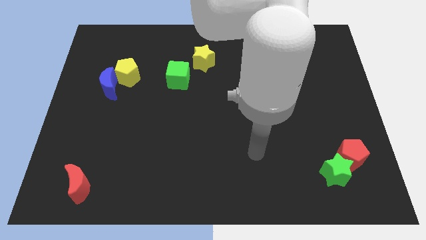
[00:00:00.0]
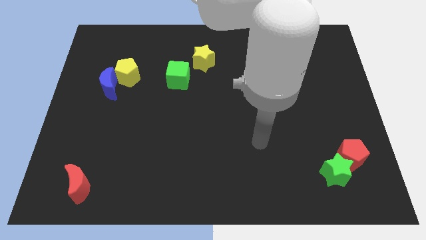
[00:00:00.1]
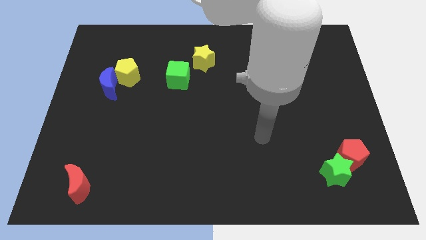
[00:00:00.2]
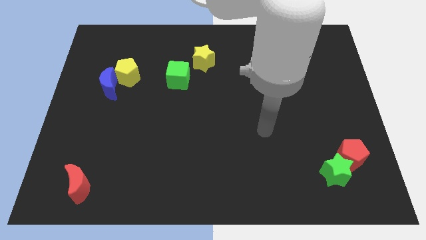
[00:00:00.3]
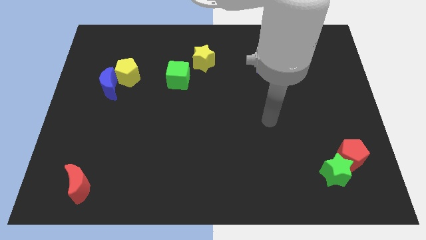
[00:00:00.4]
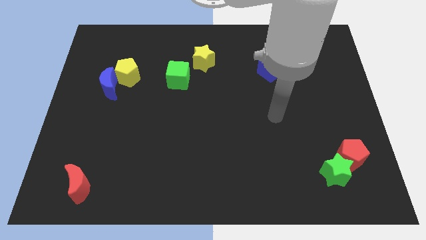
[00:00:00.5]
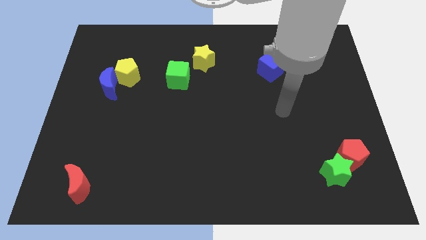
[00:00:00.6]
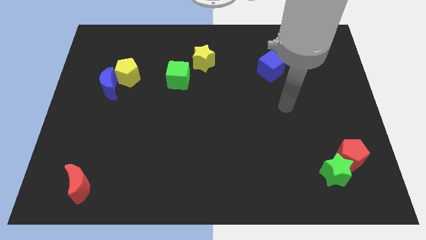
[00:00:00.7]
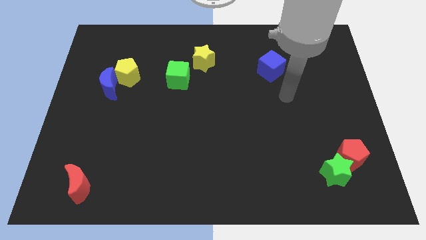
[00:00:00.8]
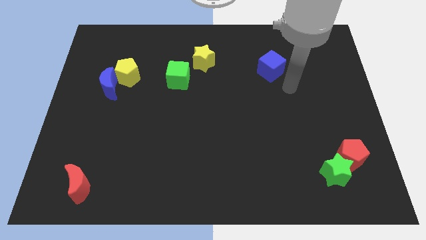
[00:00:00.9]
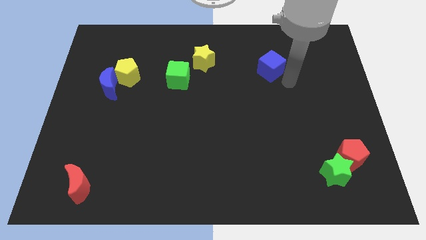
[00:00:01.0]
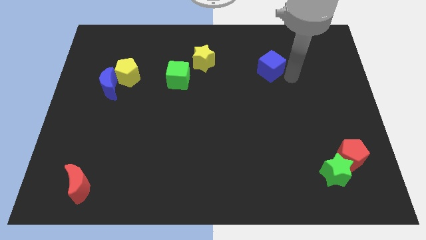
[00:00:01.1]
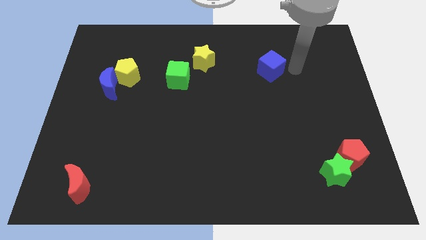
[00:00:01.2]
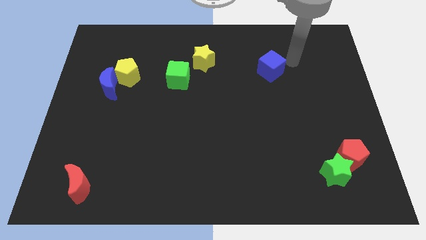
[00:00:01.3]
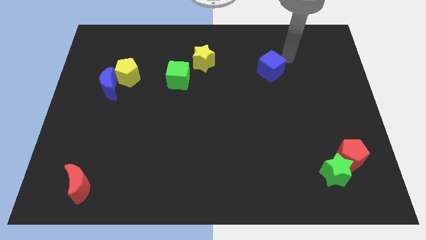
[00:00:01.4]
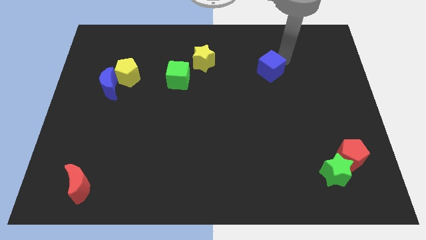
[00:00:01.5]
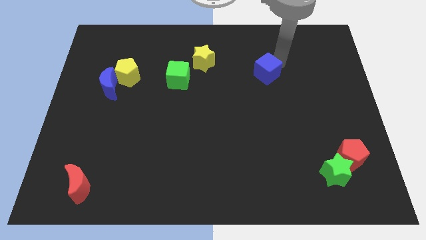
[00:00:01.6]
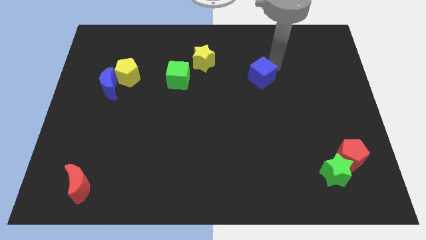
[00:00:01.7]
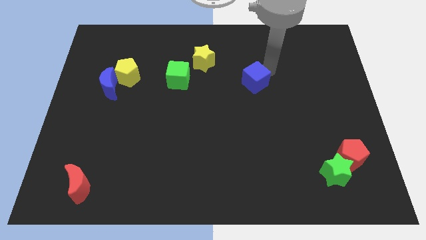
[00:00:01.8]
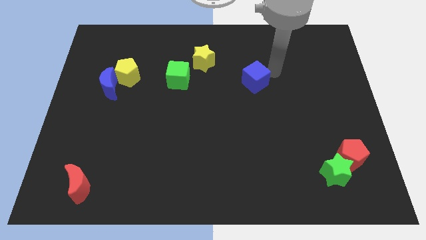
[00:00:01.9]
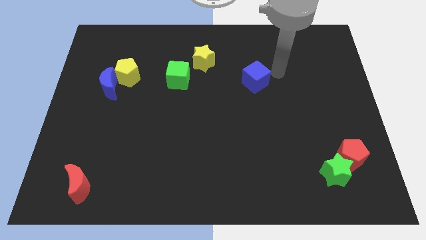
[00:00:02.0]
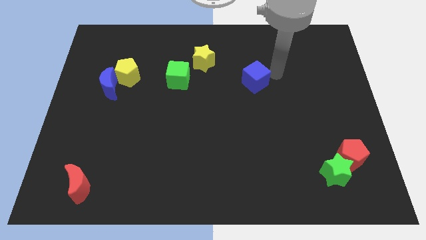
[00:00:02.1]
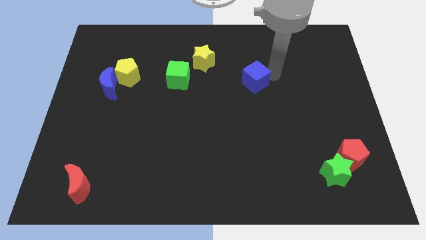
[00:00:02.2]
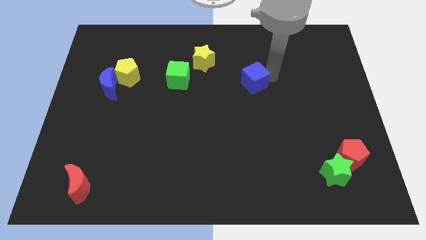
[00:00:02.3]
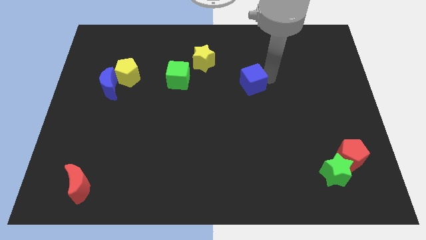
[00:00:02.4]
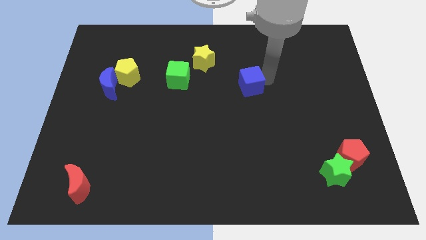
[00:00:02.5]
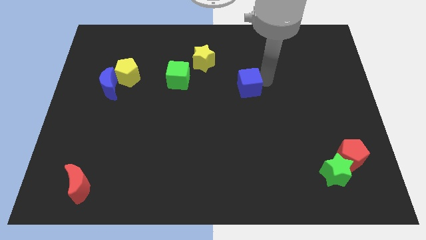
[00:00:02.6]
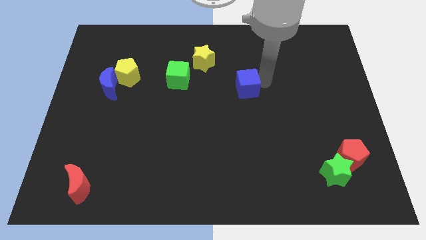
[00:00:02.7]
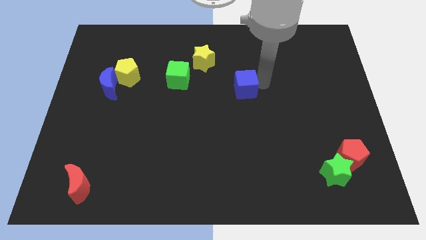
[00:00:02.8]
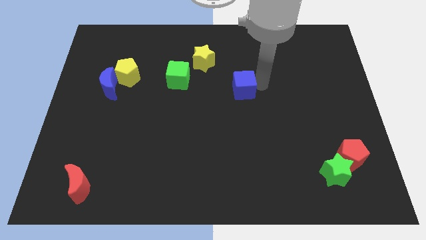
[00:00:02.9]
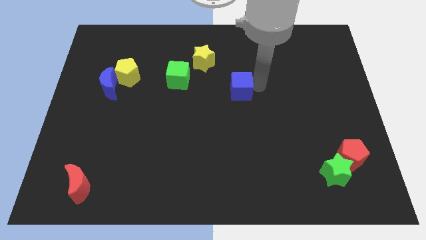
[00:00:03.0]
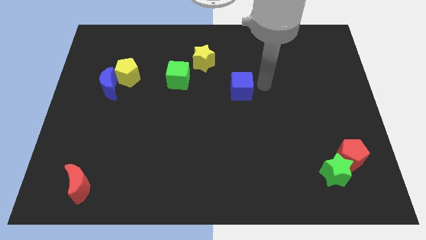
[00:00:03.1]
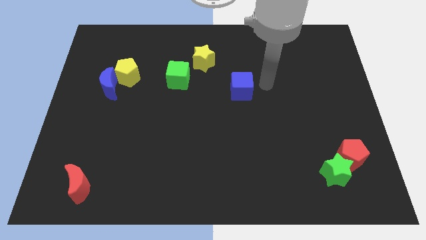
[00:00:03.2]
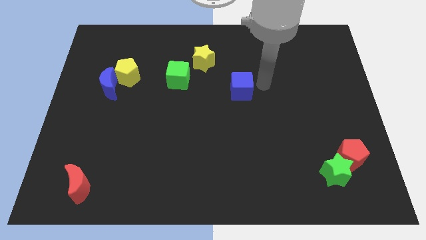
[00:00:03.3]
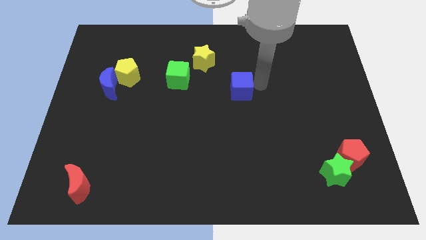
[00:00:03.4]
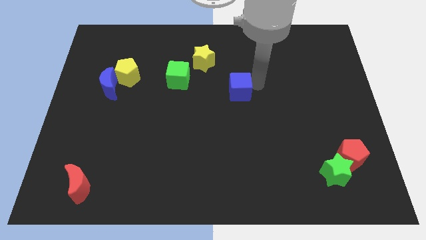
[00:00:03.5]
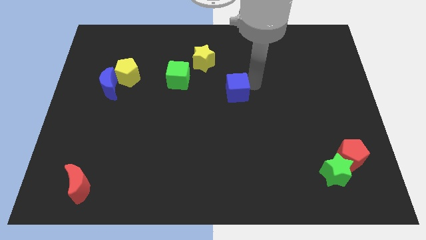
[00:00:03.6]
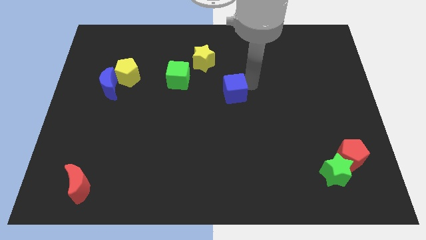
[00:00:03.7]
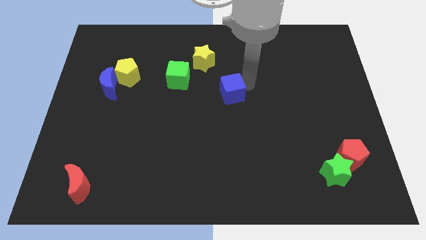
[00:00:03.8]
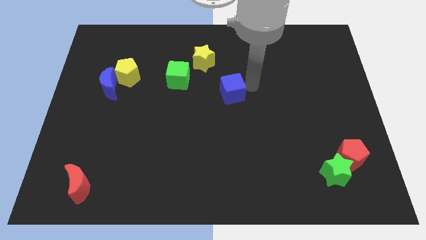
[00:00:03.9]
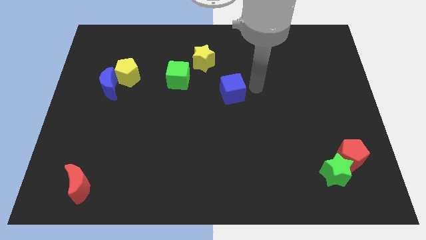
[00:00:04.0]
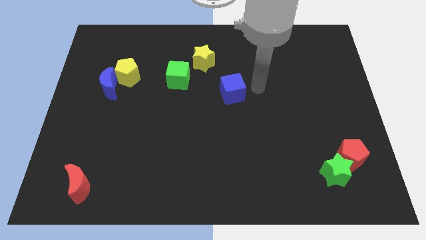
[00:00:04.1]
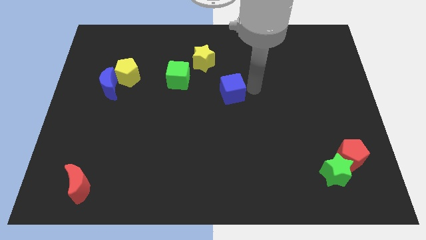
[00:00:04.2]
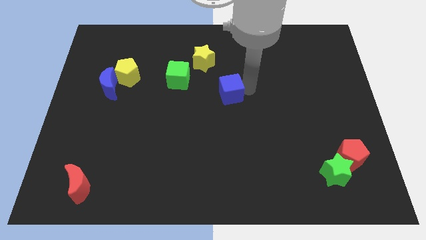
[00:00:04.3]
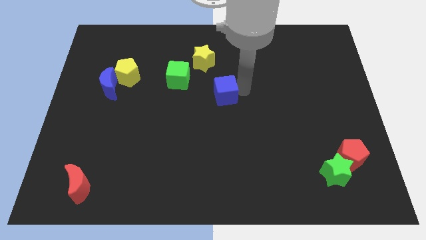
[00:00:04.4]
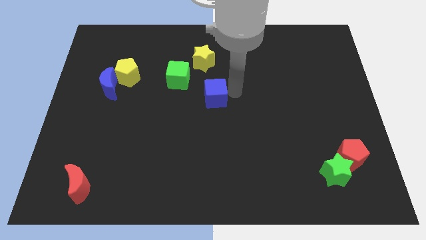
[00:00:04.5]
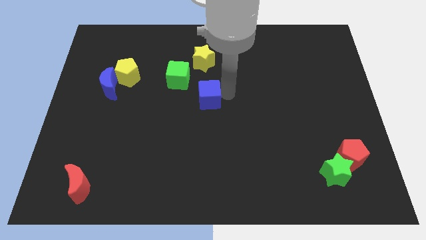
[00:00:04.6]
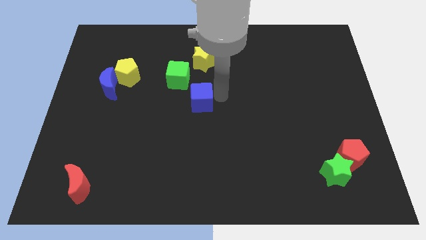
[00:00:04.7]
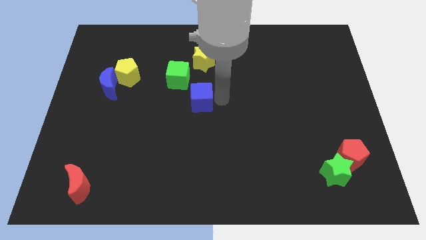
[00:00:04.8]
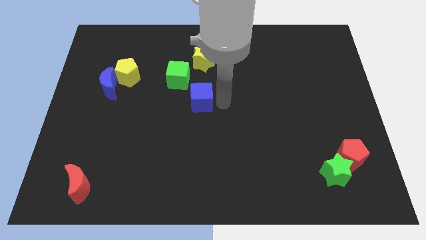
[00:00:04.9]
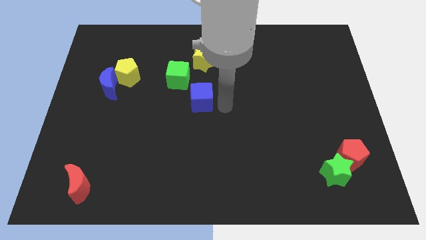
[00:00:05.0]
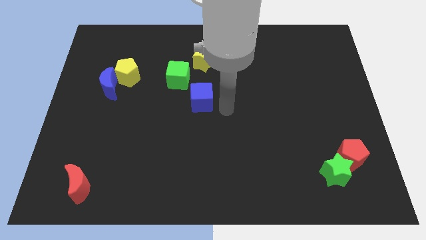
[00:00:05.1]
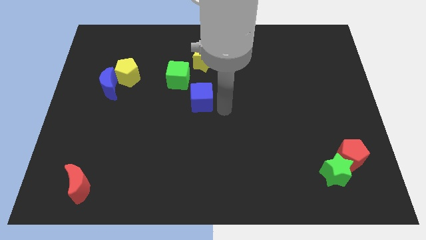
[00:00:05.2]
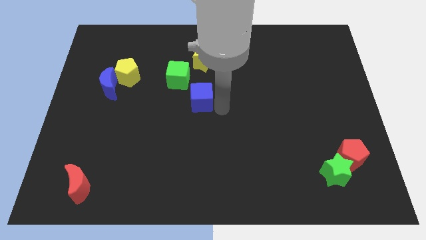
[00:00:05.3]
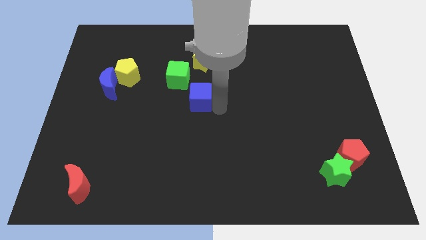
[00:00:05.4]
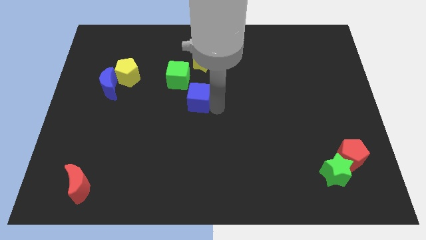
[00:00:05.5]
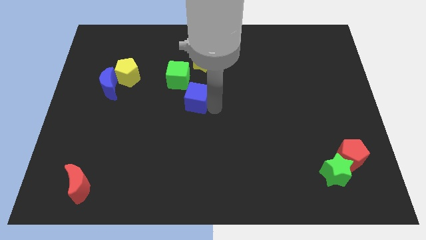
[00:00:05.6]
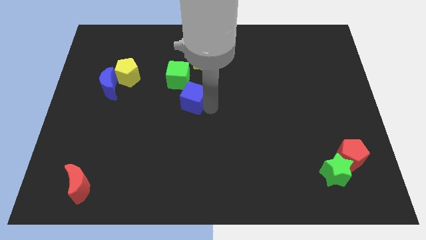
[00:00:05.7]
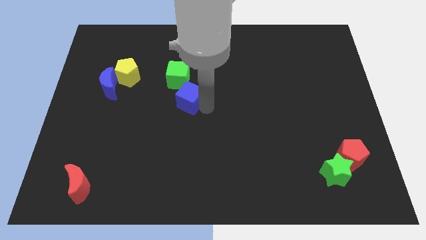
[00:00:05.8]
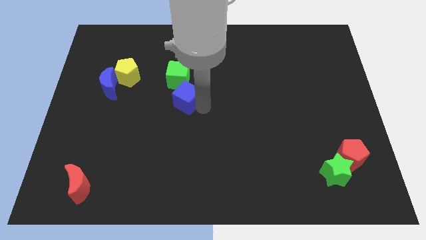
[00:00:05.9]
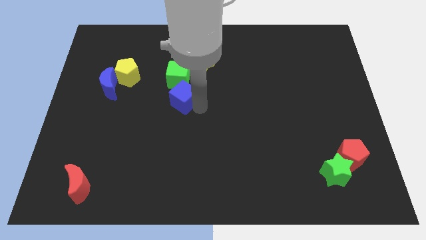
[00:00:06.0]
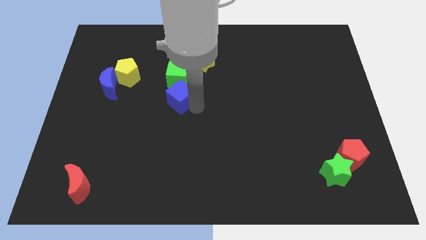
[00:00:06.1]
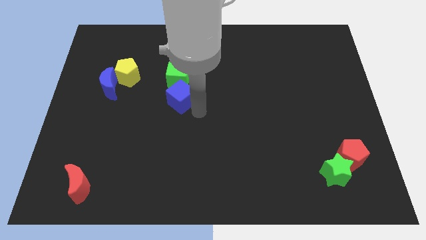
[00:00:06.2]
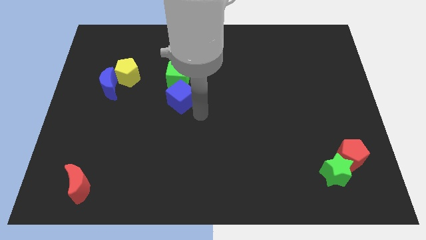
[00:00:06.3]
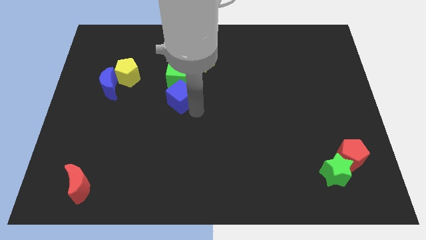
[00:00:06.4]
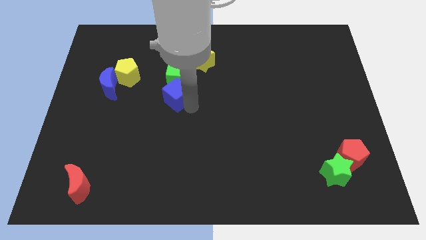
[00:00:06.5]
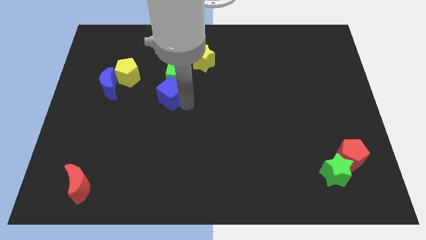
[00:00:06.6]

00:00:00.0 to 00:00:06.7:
slide the blue cube to the left

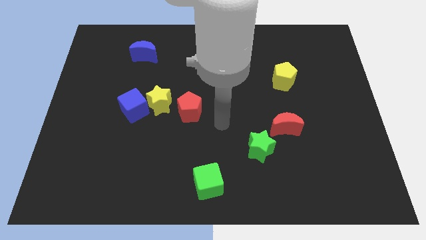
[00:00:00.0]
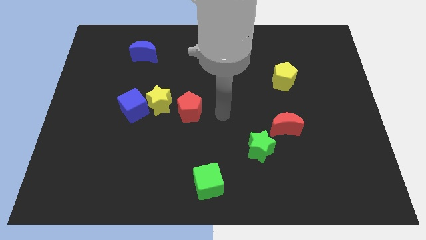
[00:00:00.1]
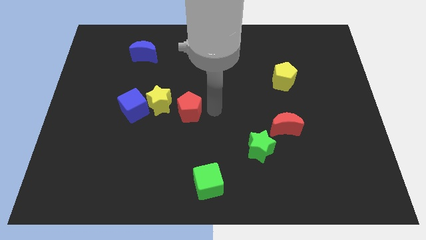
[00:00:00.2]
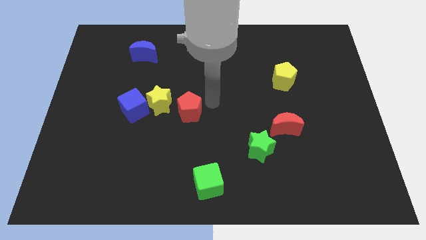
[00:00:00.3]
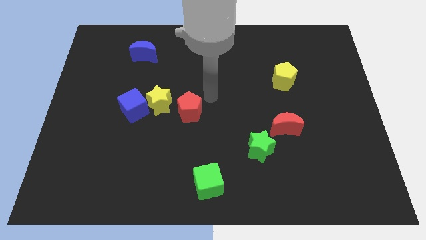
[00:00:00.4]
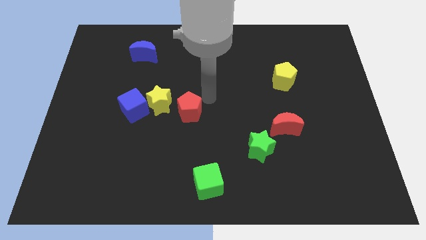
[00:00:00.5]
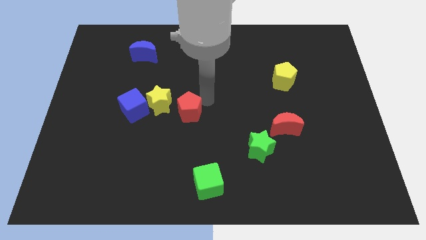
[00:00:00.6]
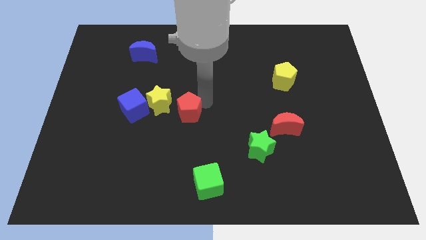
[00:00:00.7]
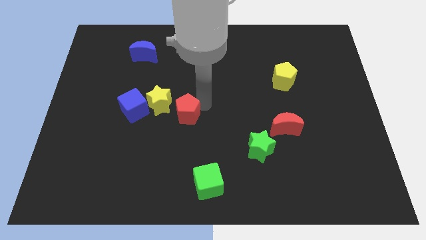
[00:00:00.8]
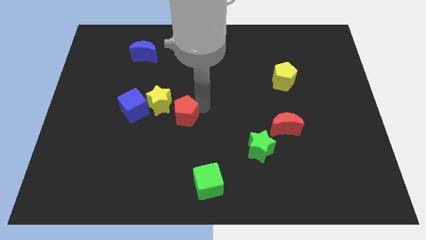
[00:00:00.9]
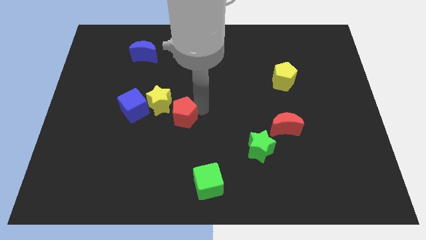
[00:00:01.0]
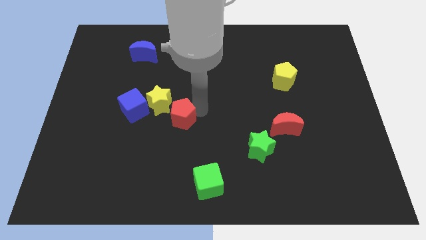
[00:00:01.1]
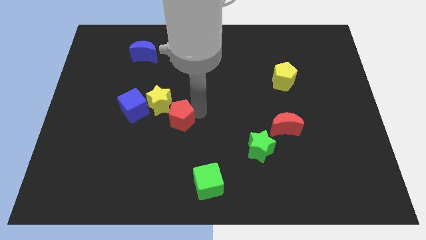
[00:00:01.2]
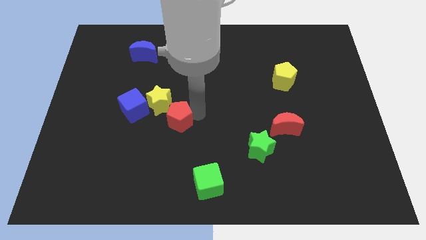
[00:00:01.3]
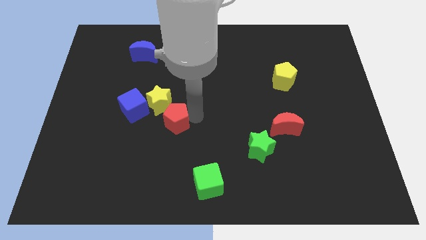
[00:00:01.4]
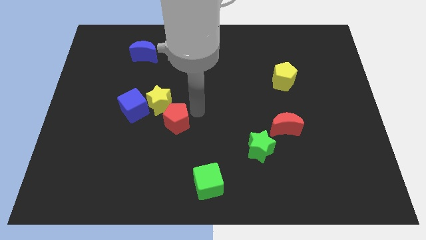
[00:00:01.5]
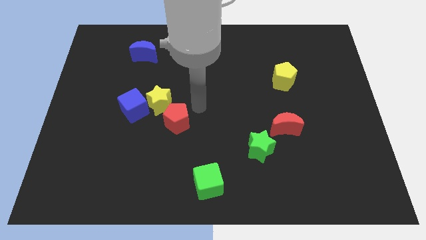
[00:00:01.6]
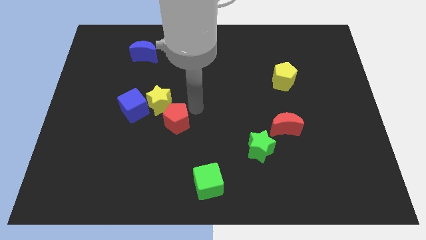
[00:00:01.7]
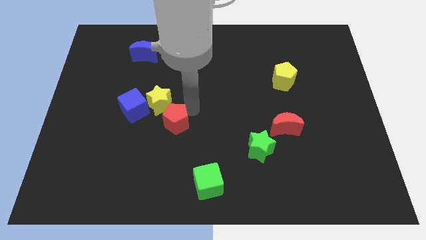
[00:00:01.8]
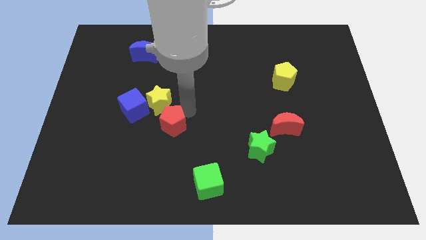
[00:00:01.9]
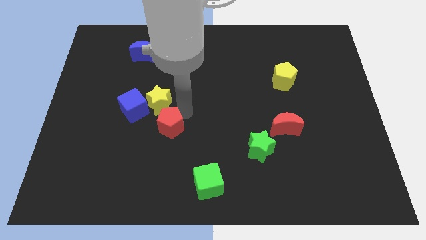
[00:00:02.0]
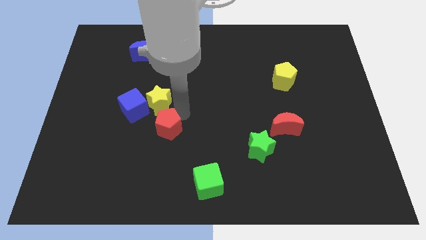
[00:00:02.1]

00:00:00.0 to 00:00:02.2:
slide the red pentagon a bit downwards and to the left diagonally
